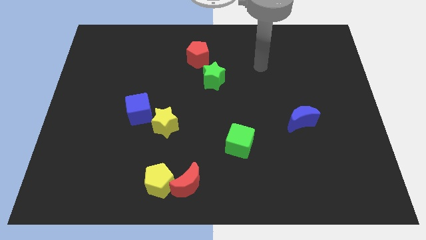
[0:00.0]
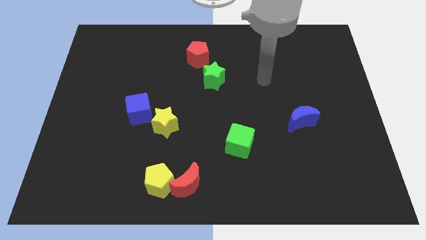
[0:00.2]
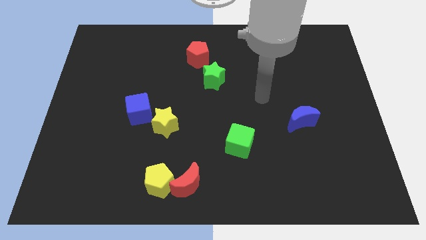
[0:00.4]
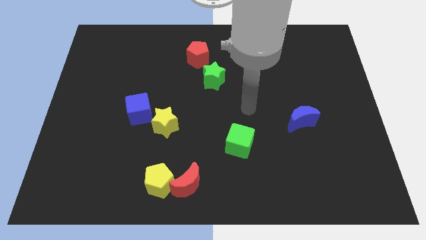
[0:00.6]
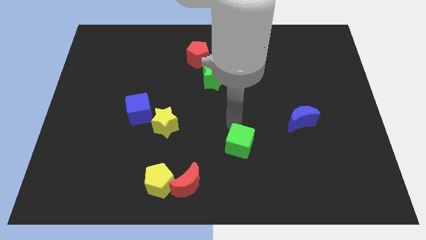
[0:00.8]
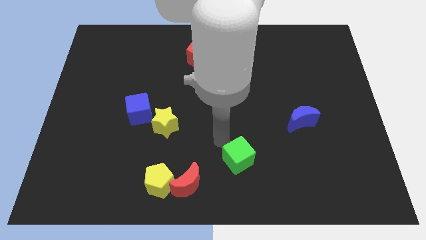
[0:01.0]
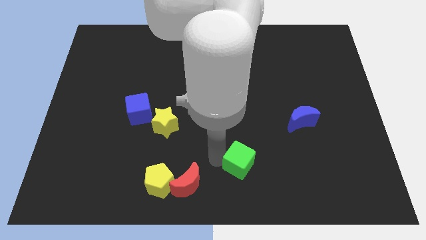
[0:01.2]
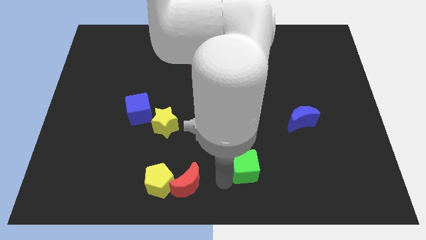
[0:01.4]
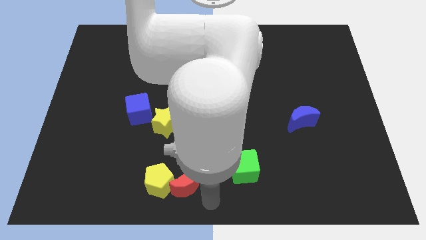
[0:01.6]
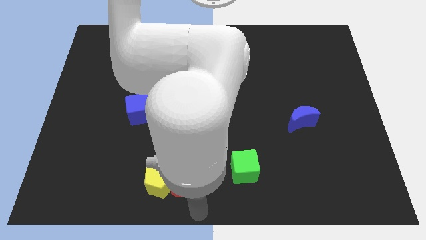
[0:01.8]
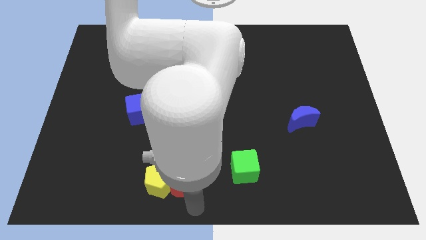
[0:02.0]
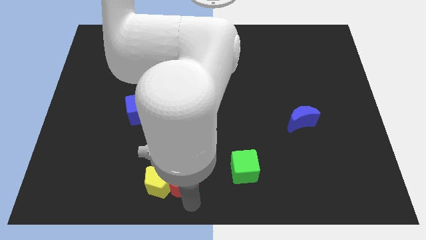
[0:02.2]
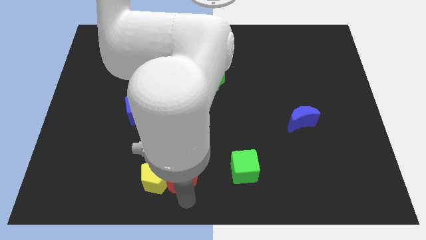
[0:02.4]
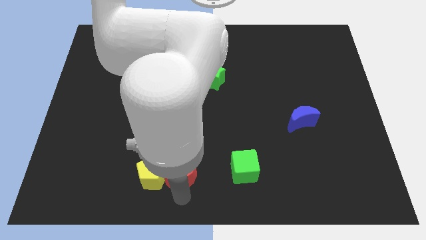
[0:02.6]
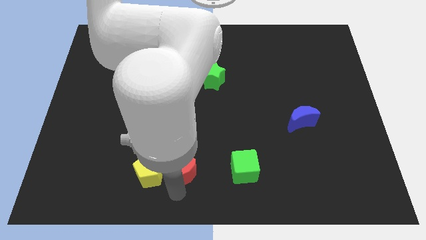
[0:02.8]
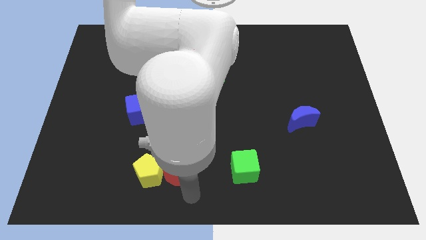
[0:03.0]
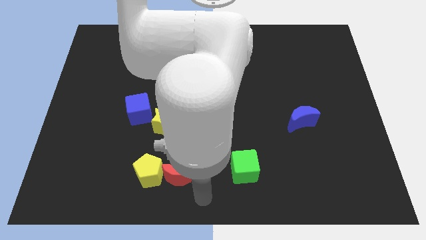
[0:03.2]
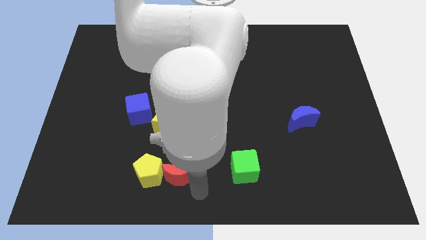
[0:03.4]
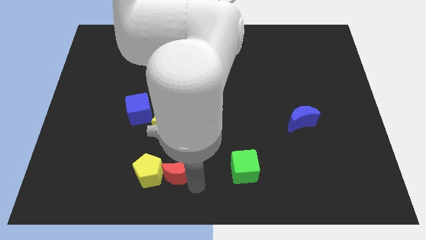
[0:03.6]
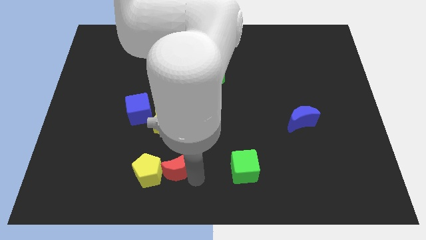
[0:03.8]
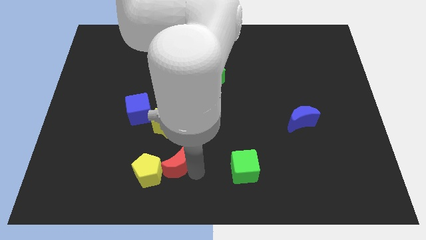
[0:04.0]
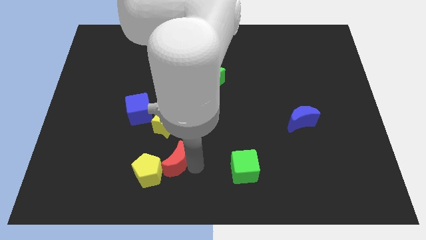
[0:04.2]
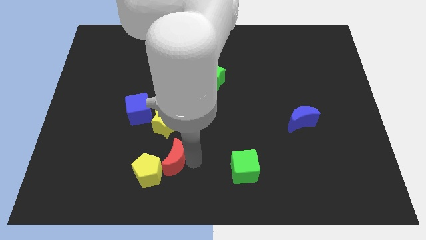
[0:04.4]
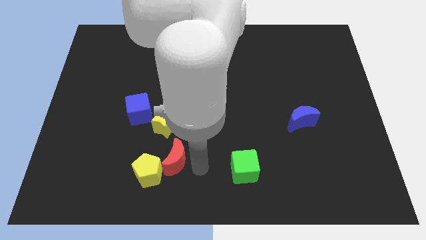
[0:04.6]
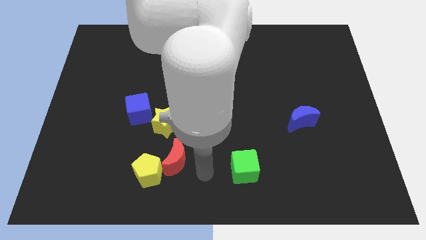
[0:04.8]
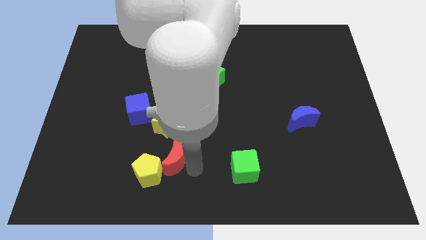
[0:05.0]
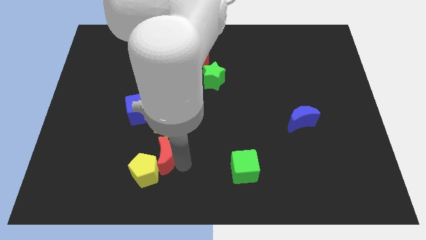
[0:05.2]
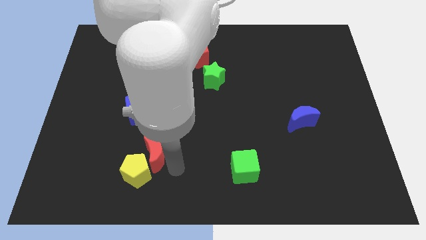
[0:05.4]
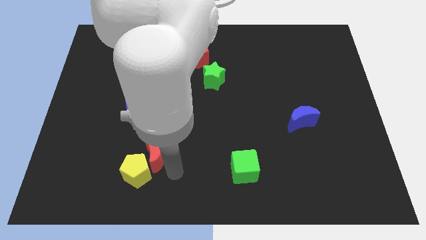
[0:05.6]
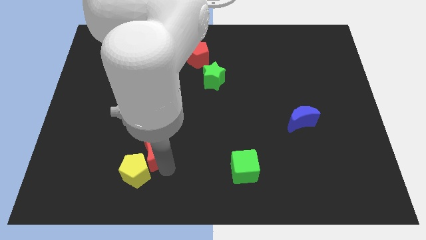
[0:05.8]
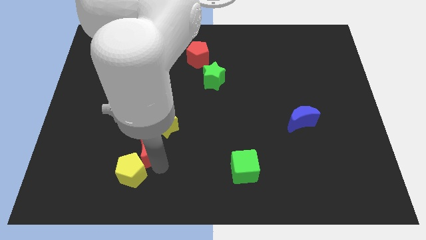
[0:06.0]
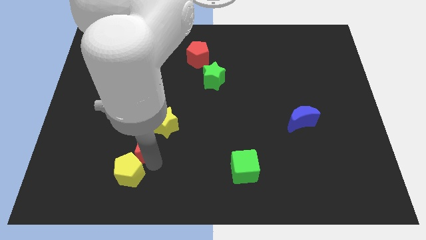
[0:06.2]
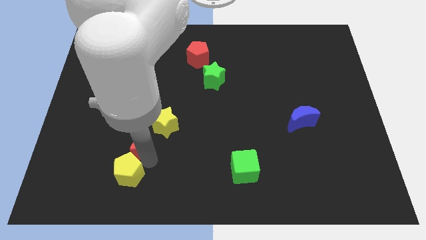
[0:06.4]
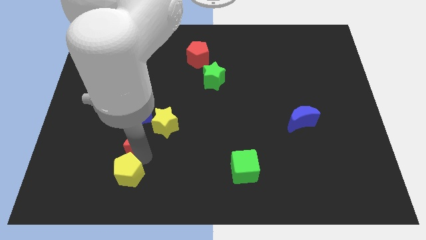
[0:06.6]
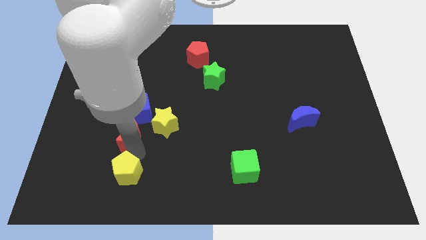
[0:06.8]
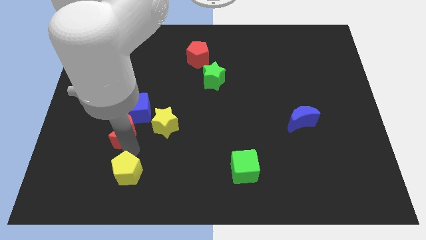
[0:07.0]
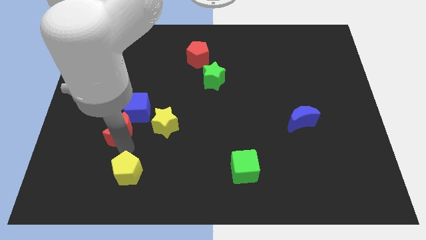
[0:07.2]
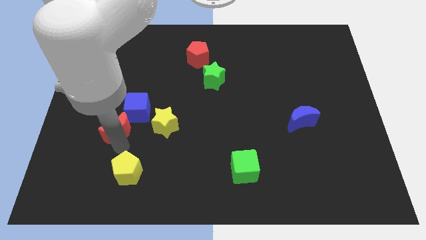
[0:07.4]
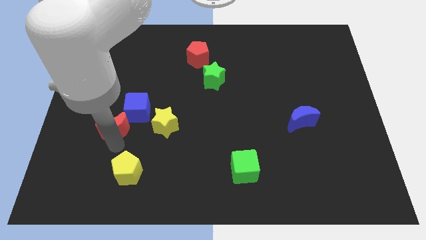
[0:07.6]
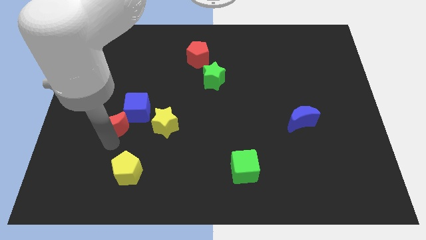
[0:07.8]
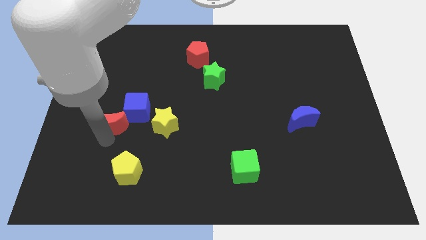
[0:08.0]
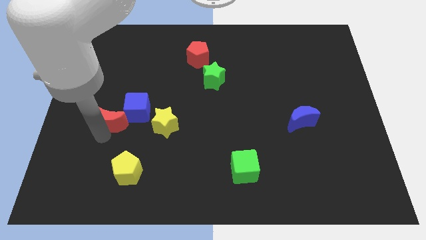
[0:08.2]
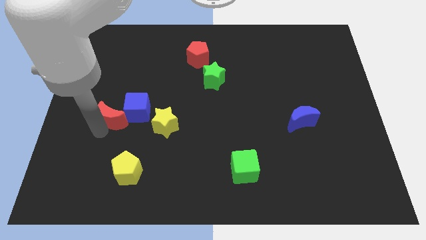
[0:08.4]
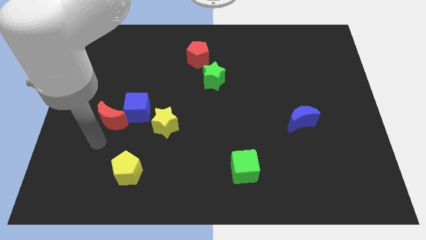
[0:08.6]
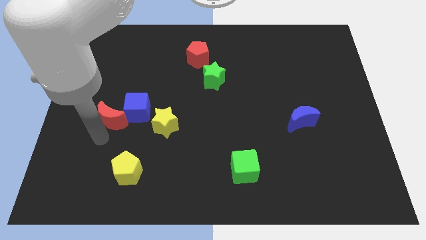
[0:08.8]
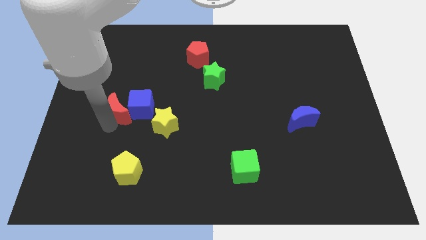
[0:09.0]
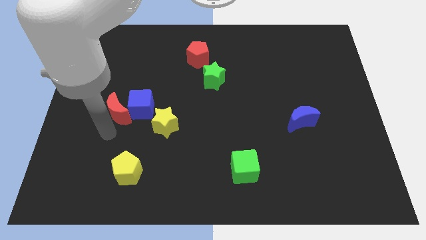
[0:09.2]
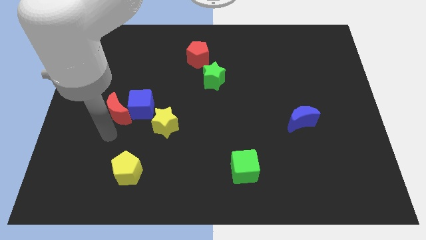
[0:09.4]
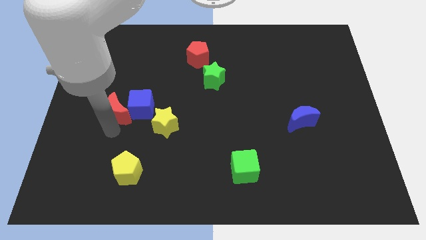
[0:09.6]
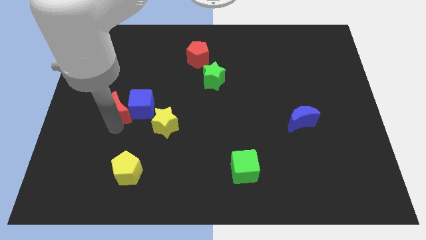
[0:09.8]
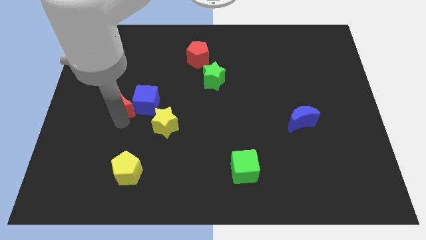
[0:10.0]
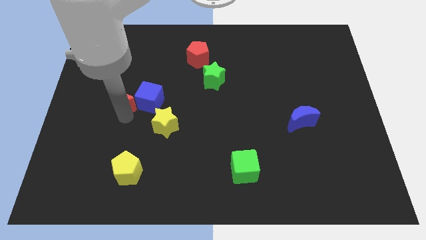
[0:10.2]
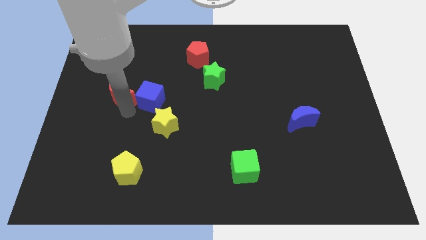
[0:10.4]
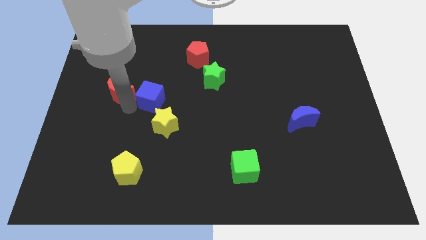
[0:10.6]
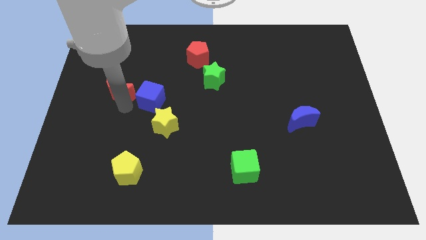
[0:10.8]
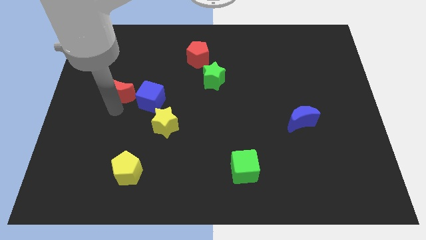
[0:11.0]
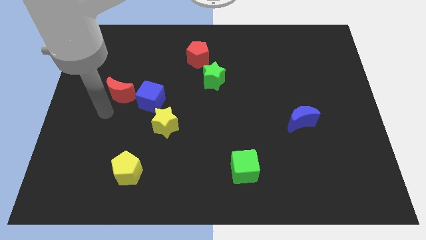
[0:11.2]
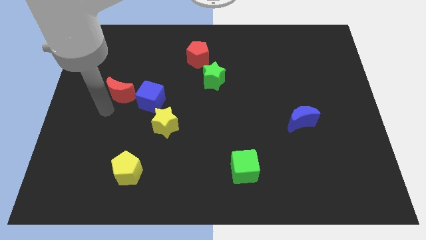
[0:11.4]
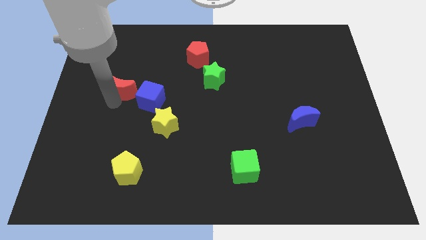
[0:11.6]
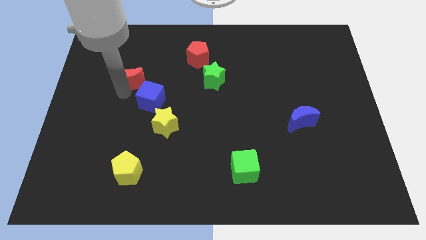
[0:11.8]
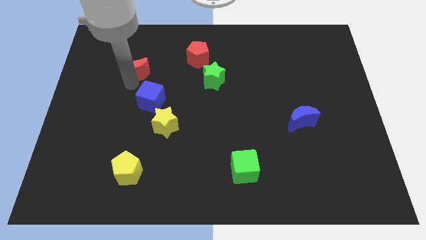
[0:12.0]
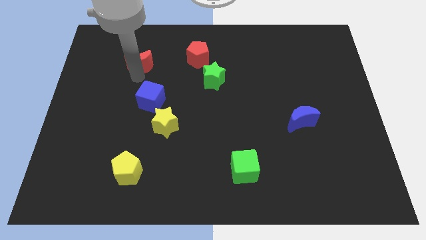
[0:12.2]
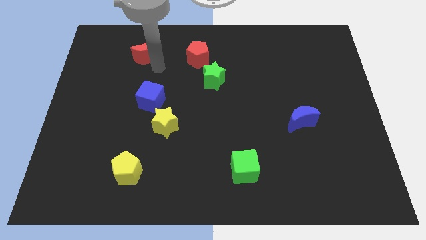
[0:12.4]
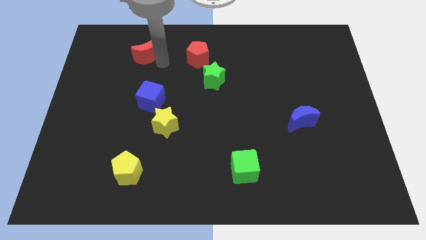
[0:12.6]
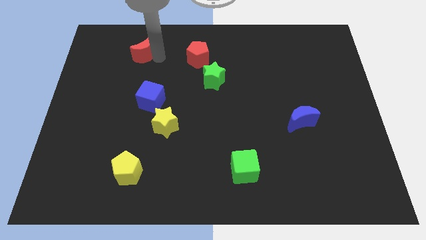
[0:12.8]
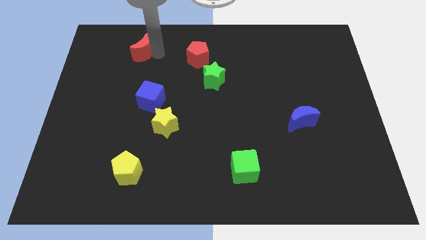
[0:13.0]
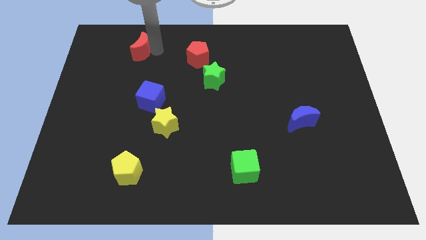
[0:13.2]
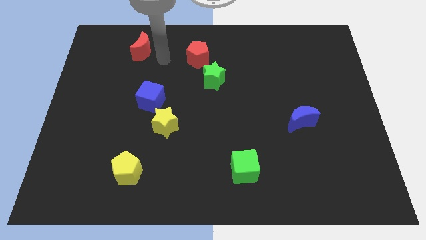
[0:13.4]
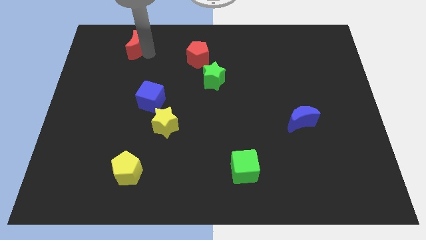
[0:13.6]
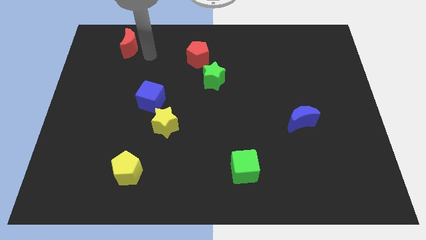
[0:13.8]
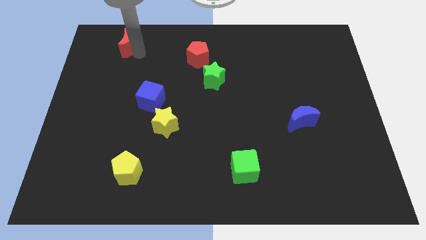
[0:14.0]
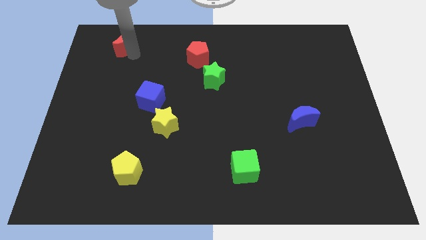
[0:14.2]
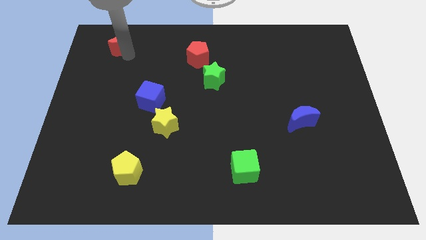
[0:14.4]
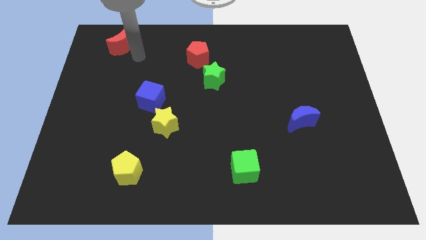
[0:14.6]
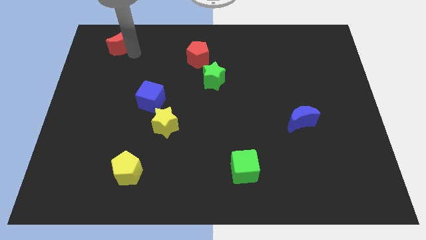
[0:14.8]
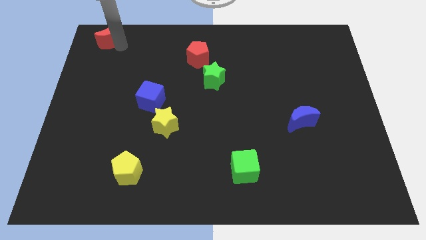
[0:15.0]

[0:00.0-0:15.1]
slide the red moon to the top left of the board

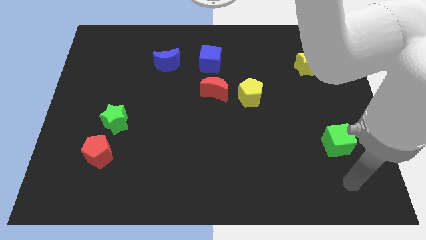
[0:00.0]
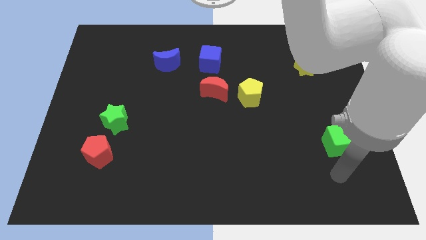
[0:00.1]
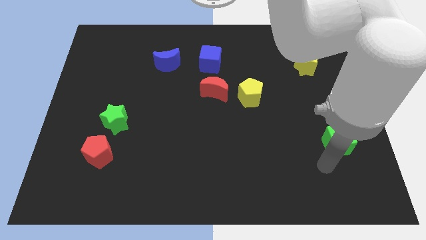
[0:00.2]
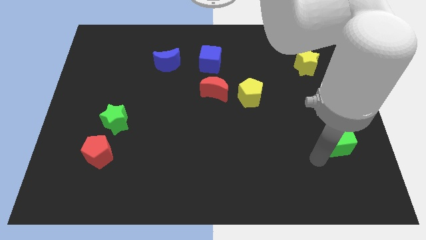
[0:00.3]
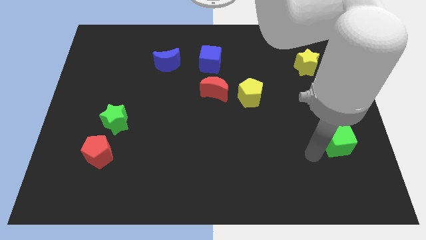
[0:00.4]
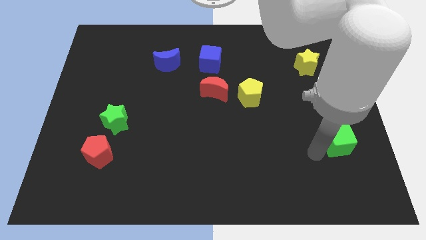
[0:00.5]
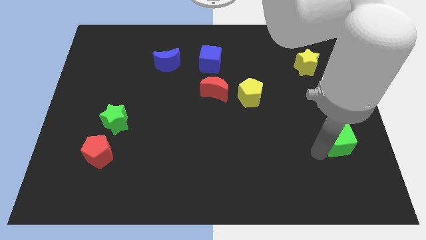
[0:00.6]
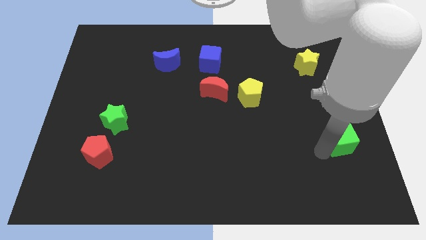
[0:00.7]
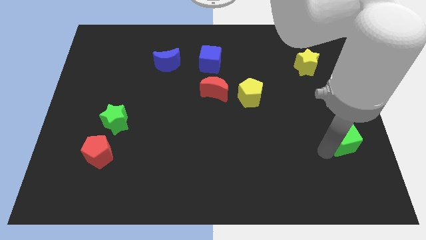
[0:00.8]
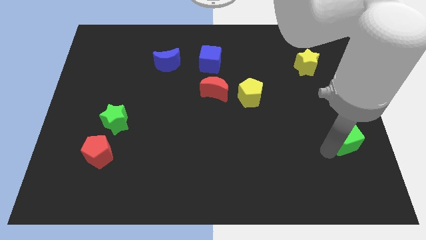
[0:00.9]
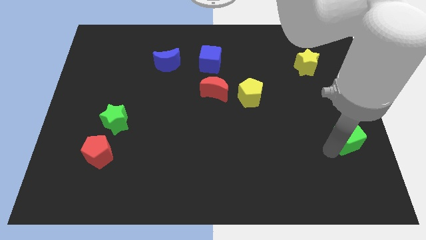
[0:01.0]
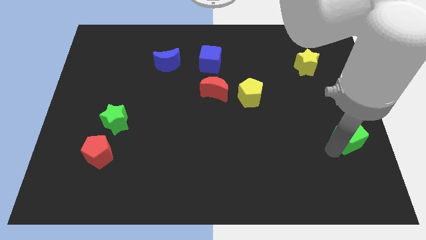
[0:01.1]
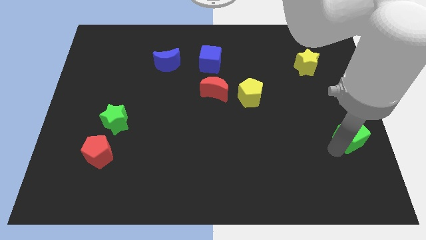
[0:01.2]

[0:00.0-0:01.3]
move the green cube to the right side
